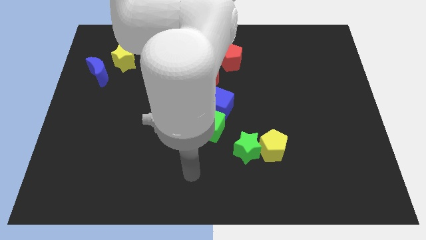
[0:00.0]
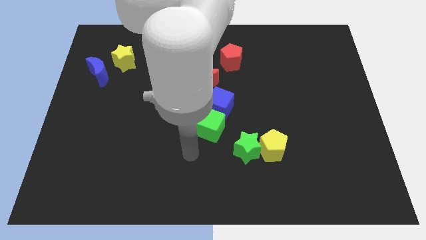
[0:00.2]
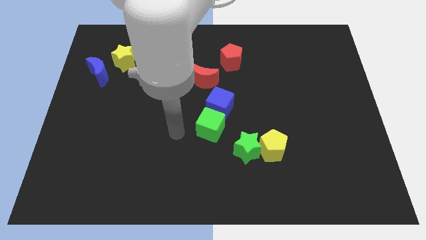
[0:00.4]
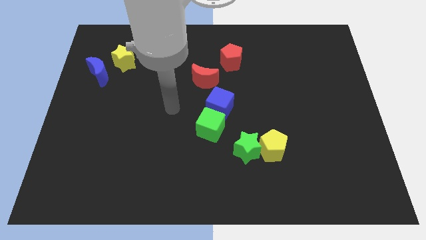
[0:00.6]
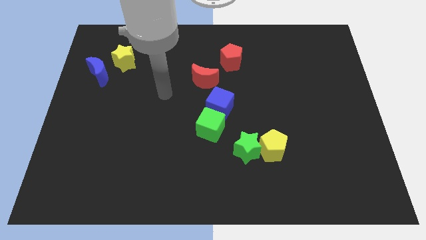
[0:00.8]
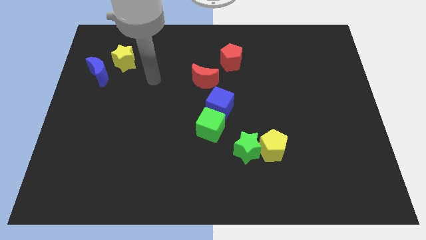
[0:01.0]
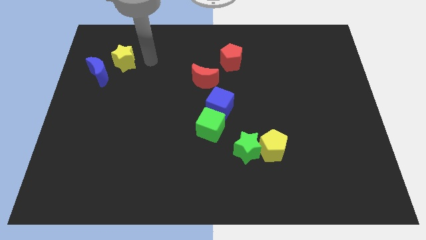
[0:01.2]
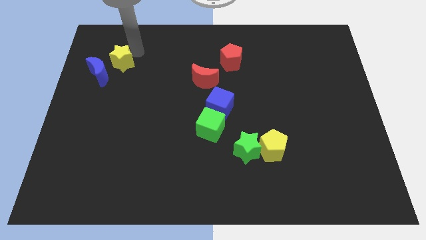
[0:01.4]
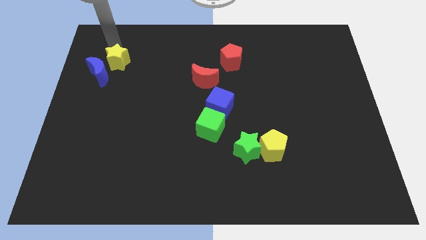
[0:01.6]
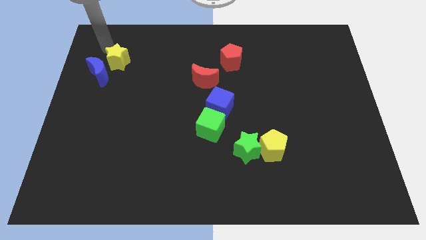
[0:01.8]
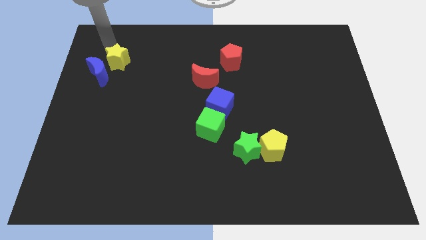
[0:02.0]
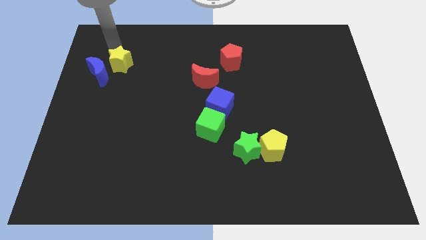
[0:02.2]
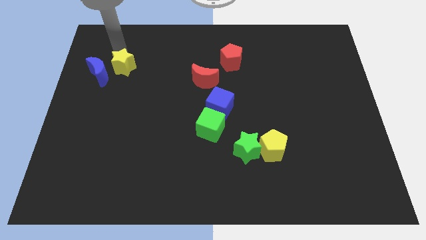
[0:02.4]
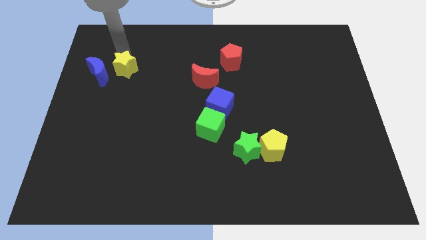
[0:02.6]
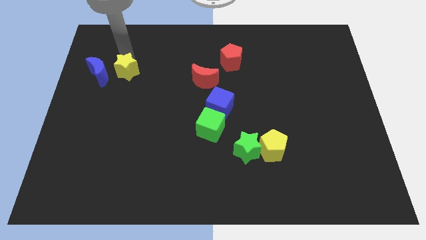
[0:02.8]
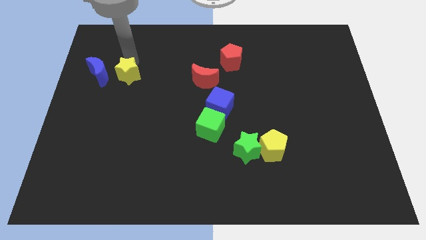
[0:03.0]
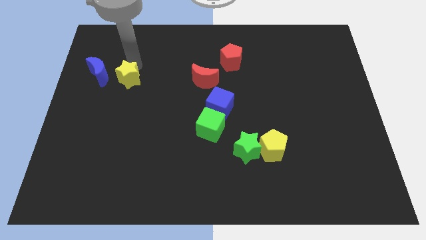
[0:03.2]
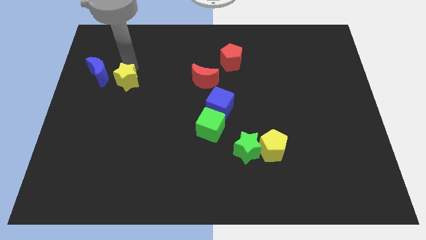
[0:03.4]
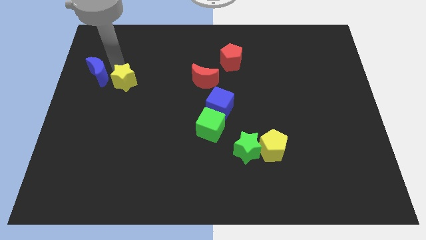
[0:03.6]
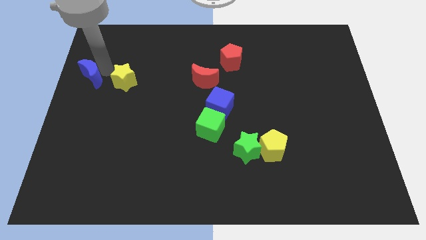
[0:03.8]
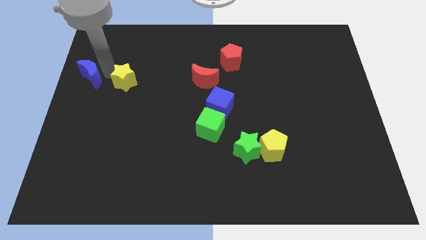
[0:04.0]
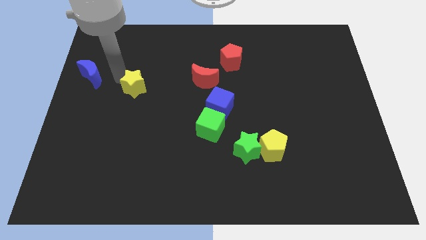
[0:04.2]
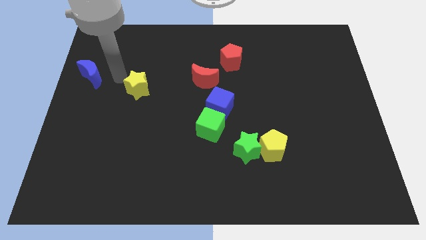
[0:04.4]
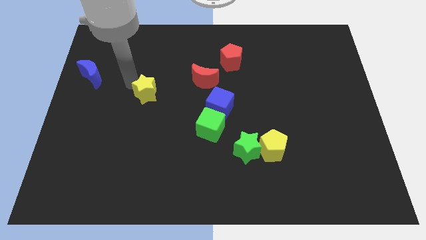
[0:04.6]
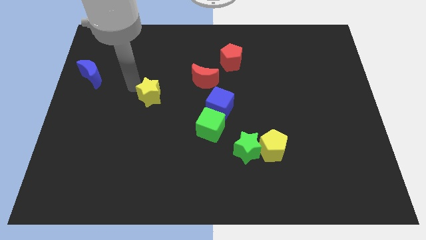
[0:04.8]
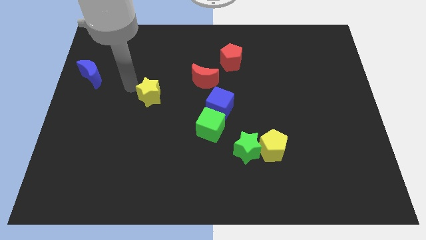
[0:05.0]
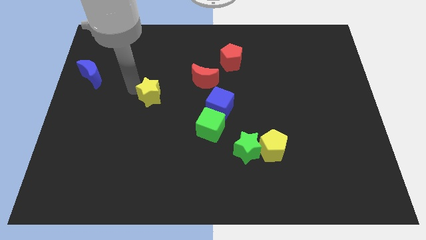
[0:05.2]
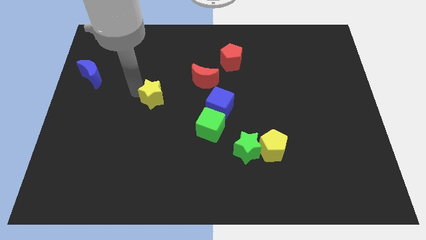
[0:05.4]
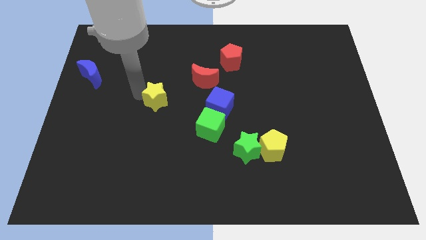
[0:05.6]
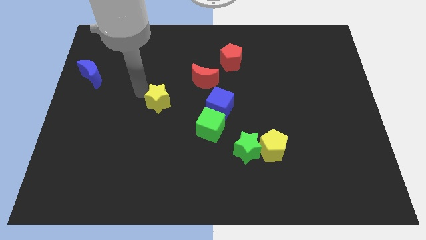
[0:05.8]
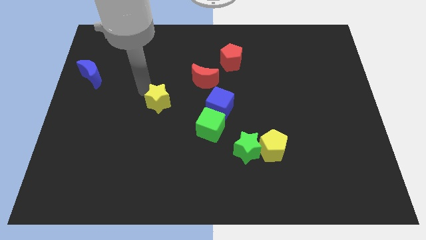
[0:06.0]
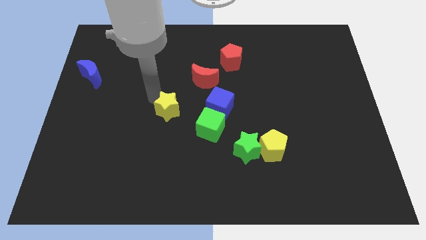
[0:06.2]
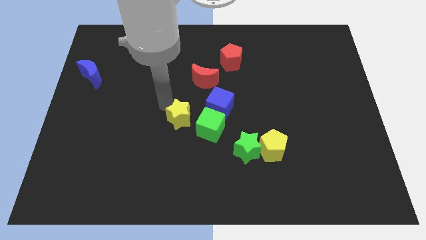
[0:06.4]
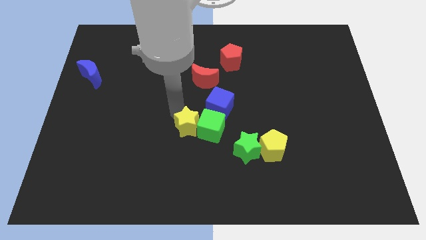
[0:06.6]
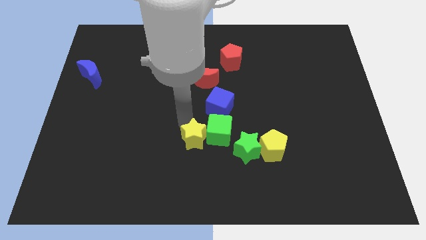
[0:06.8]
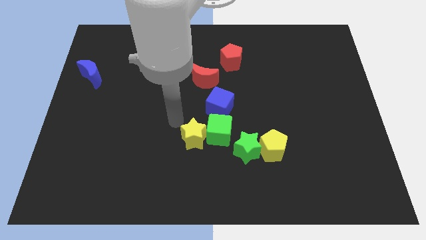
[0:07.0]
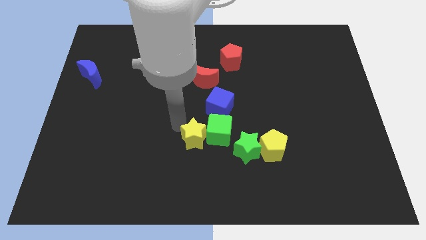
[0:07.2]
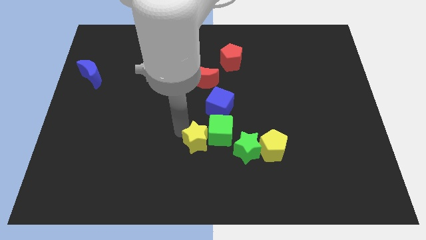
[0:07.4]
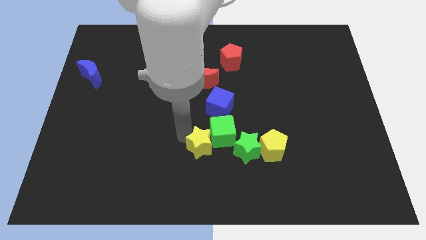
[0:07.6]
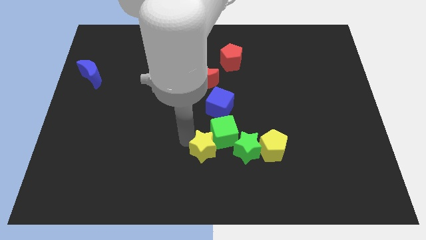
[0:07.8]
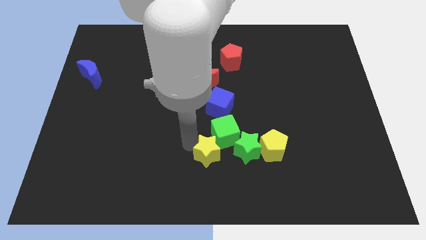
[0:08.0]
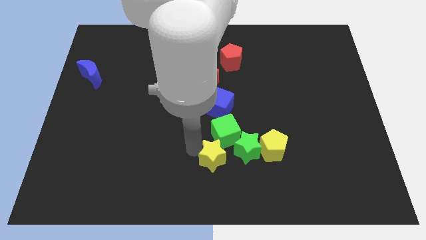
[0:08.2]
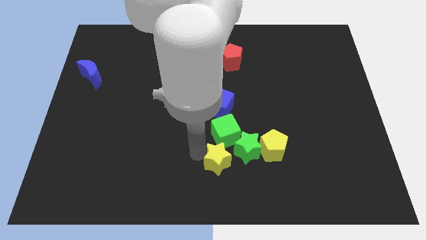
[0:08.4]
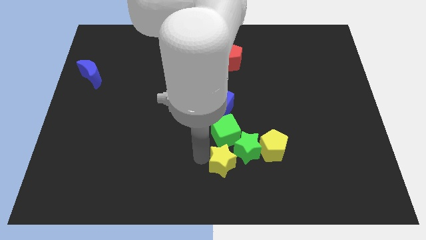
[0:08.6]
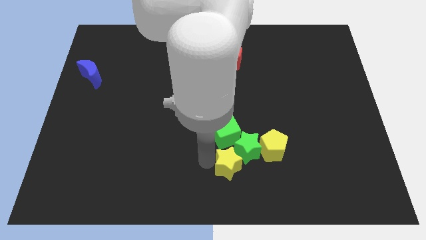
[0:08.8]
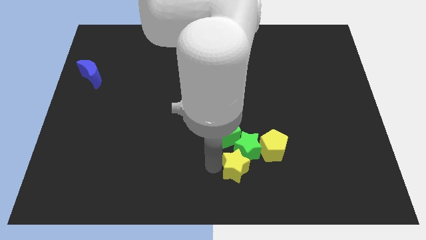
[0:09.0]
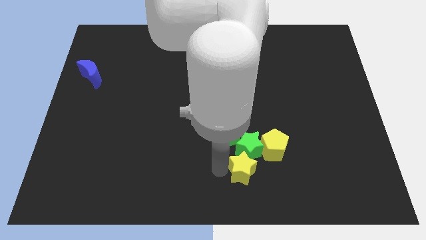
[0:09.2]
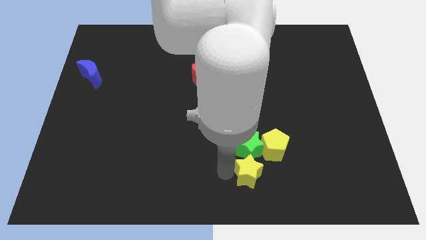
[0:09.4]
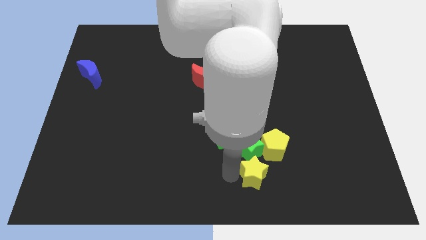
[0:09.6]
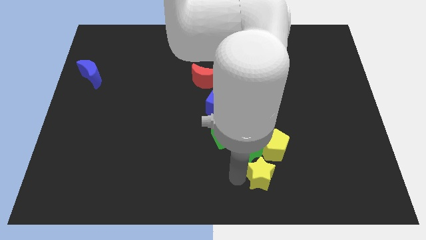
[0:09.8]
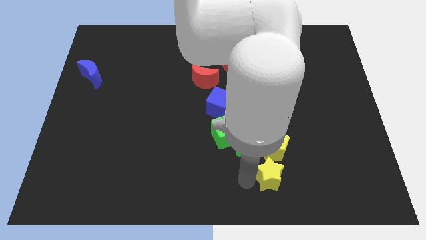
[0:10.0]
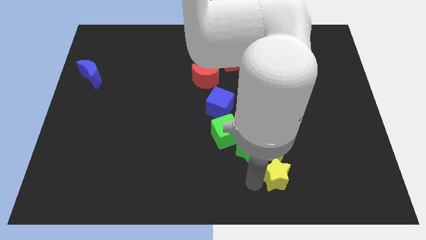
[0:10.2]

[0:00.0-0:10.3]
push the yellow star to the bottom right of the yellow pentagon

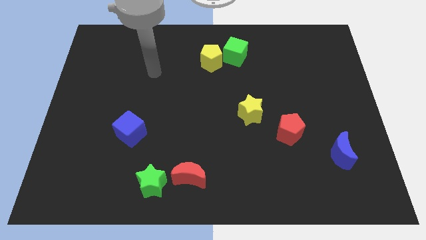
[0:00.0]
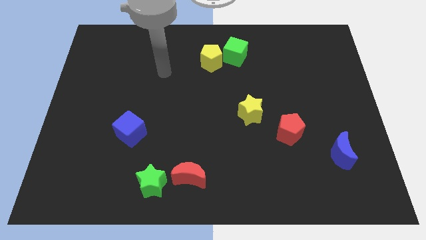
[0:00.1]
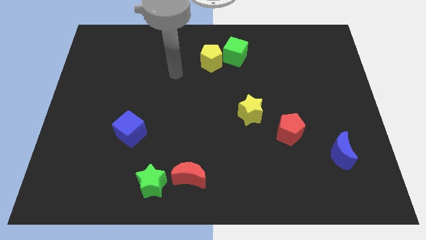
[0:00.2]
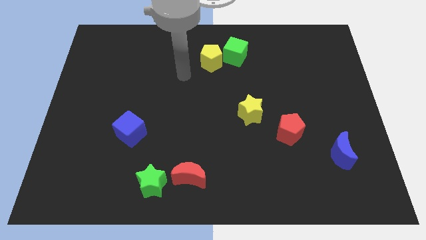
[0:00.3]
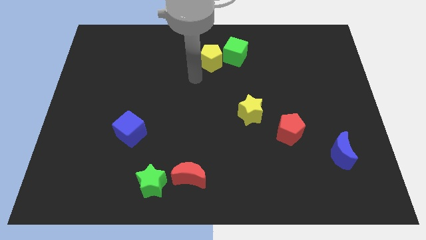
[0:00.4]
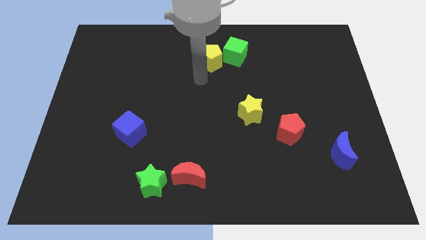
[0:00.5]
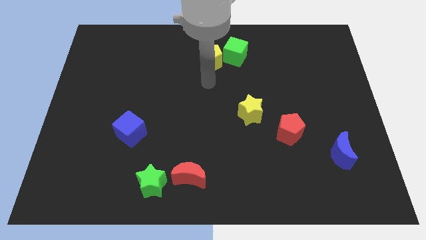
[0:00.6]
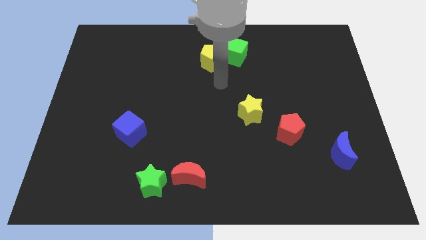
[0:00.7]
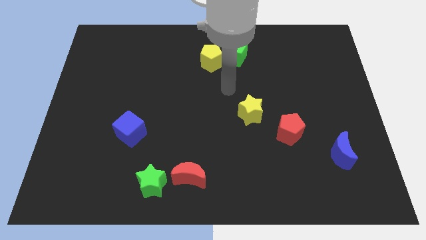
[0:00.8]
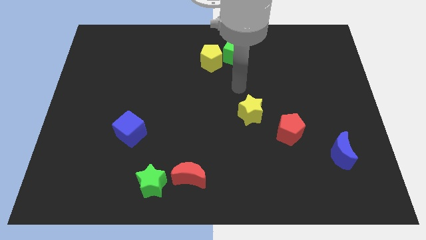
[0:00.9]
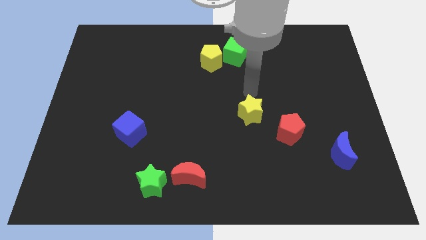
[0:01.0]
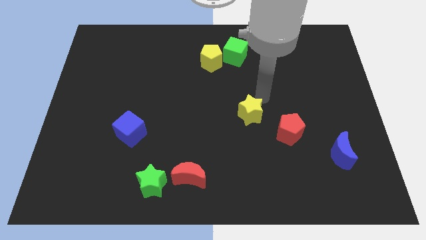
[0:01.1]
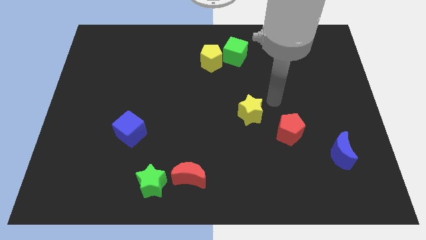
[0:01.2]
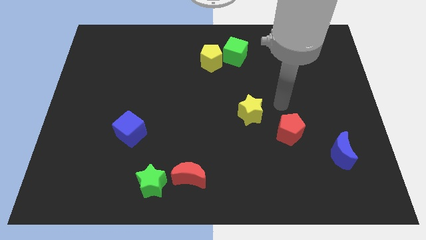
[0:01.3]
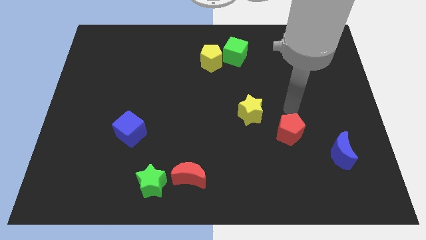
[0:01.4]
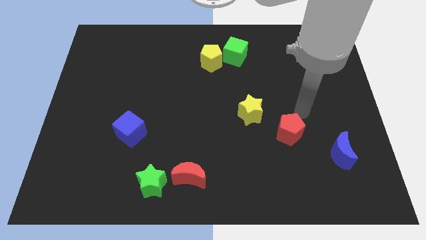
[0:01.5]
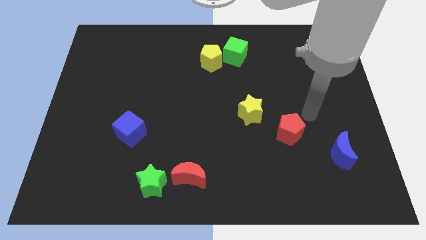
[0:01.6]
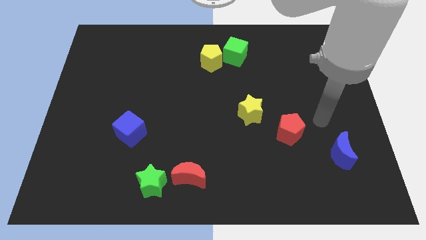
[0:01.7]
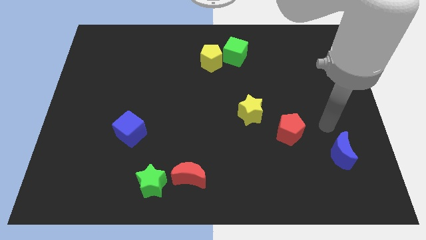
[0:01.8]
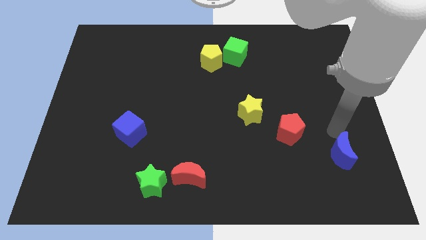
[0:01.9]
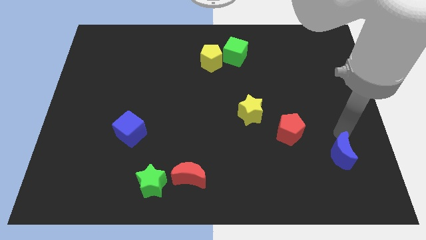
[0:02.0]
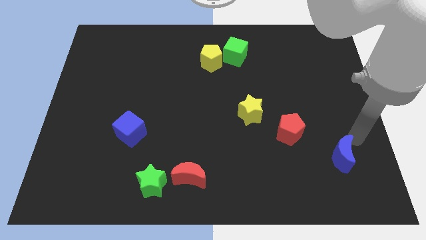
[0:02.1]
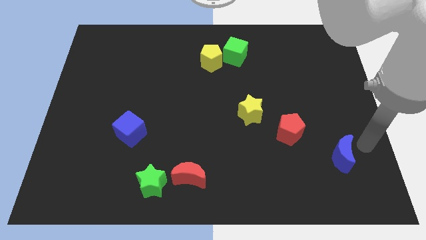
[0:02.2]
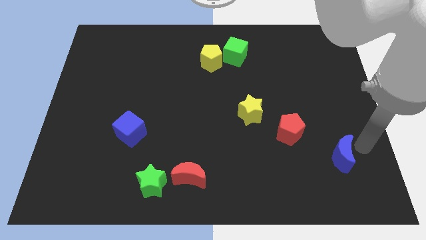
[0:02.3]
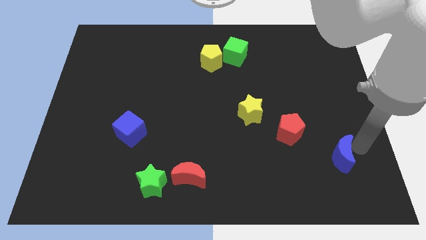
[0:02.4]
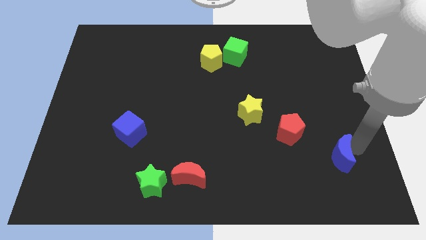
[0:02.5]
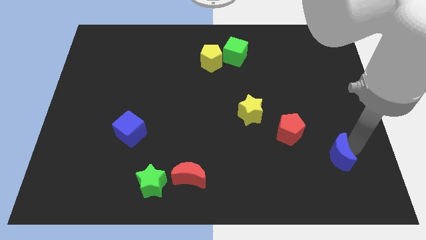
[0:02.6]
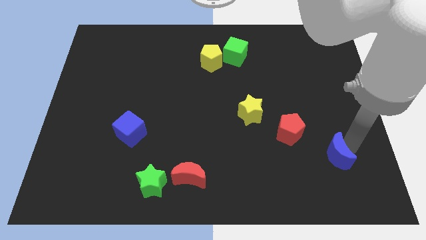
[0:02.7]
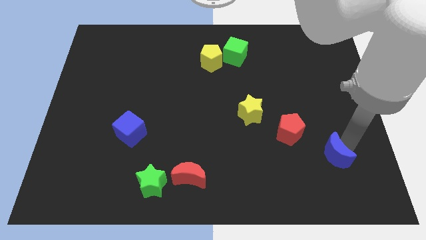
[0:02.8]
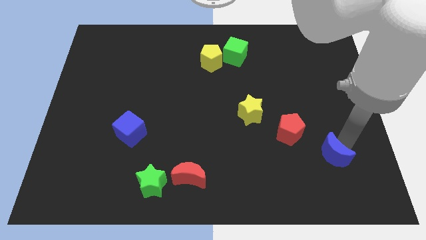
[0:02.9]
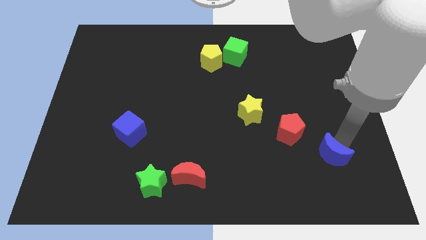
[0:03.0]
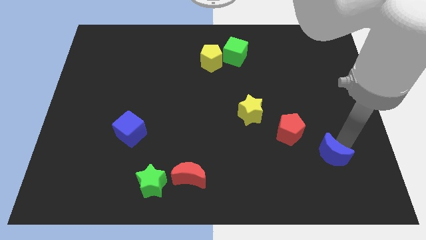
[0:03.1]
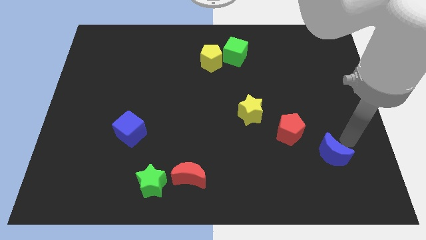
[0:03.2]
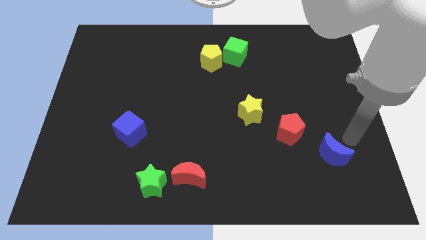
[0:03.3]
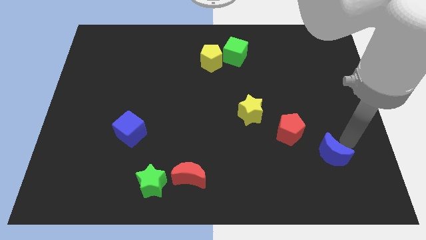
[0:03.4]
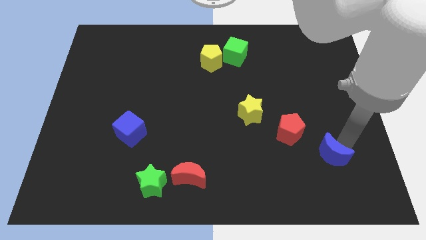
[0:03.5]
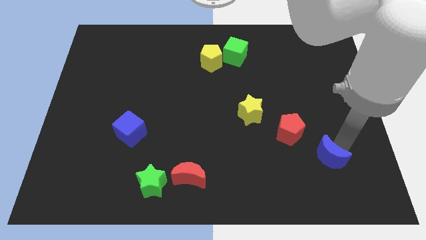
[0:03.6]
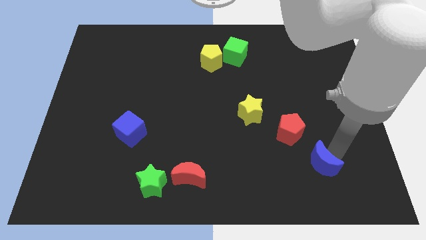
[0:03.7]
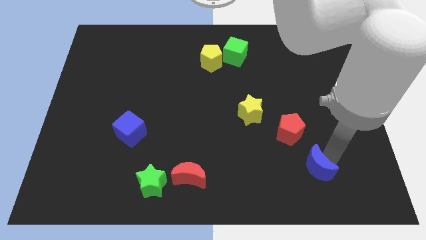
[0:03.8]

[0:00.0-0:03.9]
push the blue moon below the red pentagon
